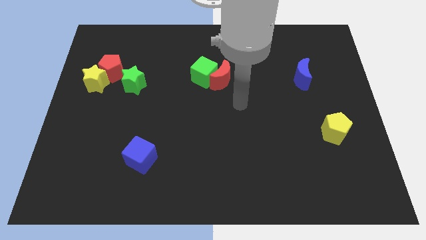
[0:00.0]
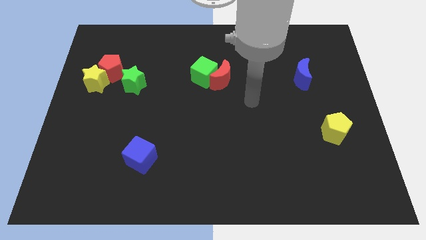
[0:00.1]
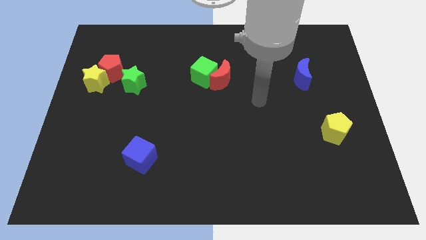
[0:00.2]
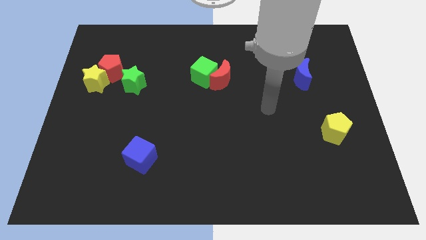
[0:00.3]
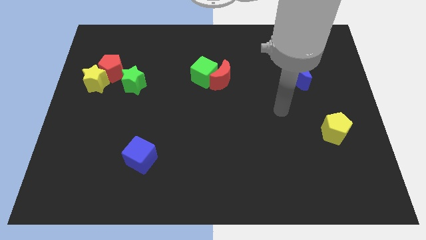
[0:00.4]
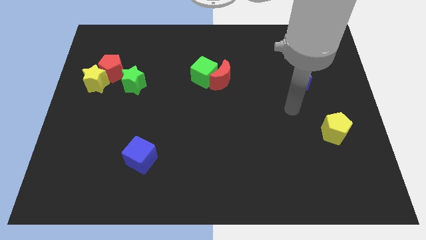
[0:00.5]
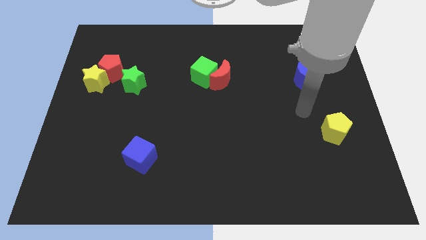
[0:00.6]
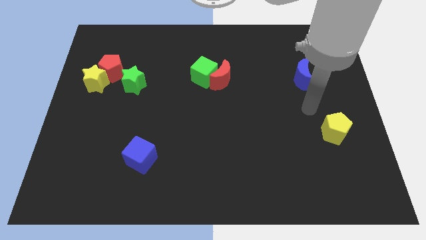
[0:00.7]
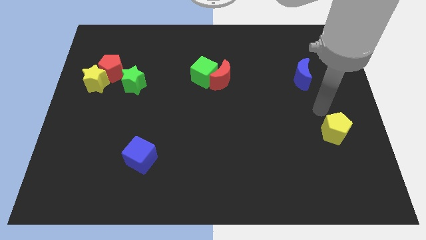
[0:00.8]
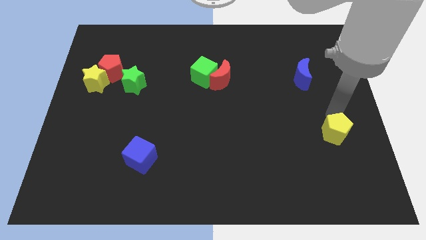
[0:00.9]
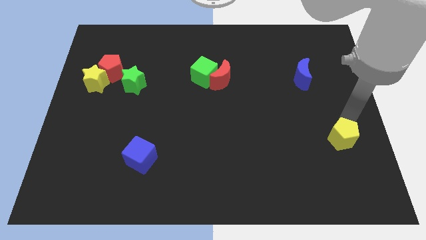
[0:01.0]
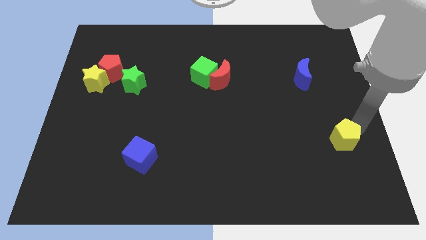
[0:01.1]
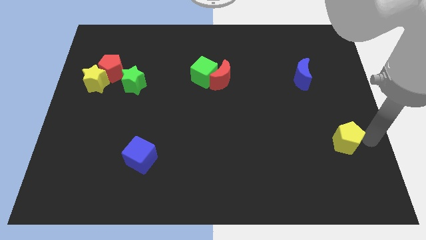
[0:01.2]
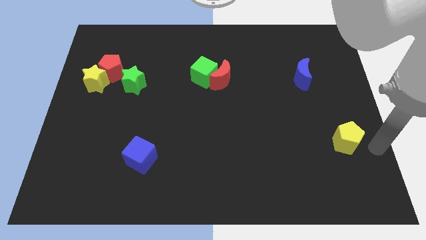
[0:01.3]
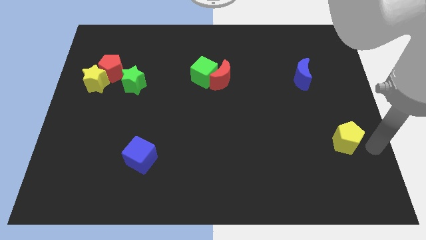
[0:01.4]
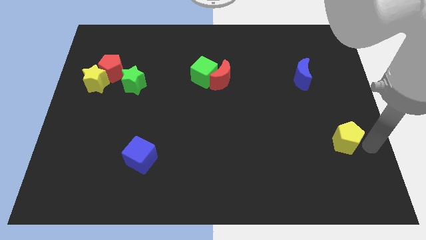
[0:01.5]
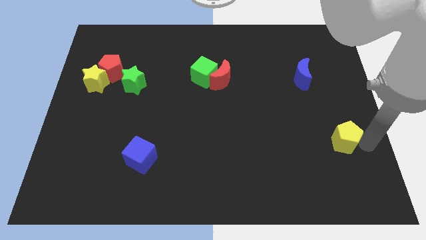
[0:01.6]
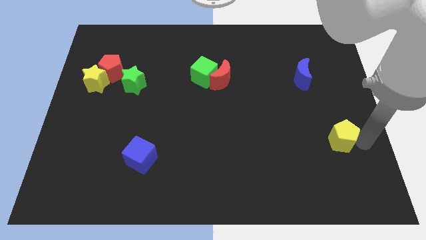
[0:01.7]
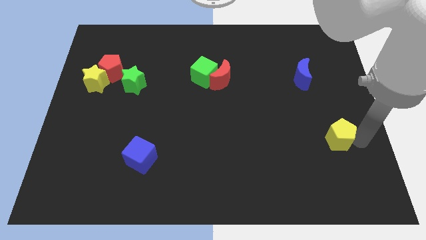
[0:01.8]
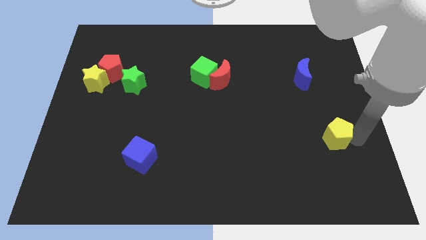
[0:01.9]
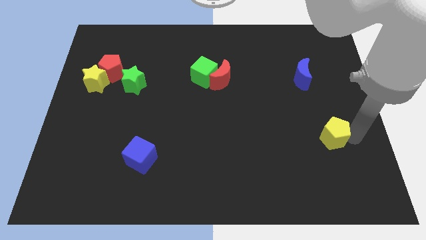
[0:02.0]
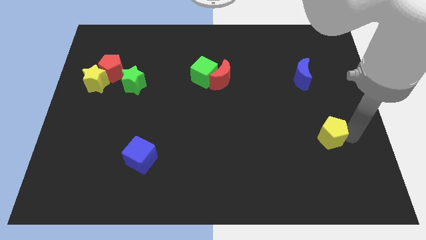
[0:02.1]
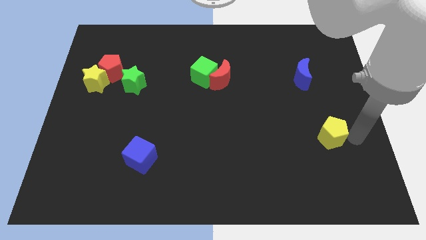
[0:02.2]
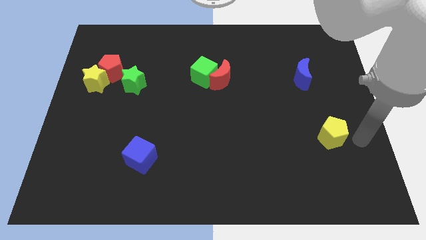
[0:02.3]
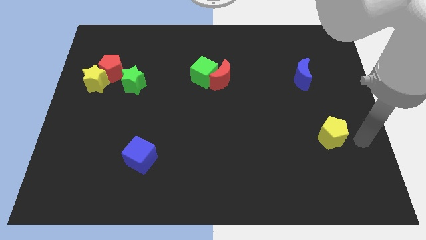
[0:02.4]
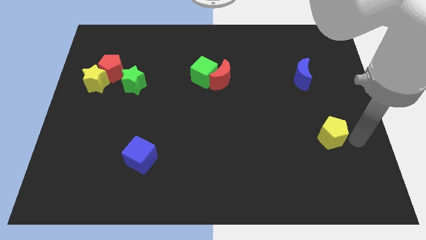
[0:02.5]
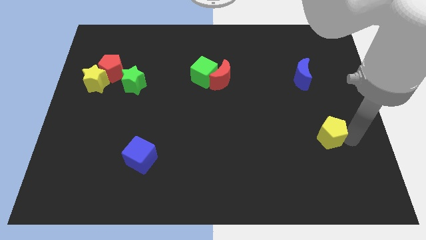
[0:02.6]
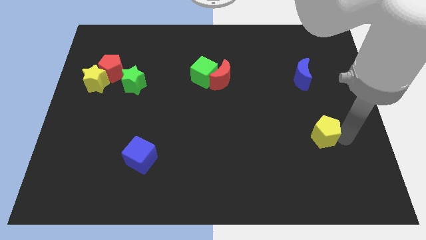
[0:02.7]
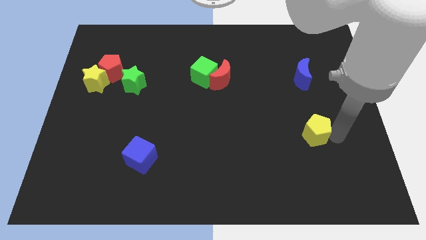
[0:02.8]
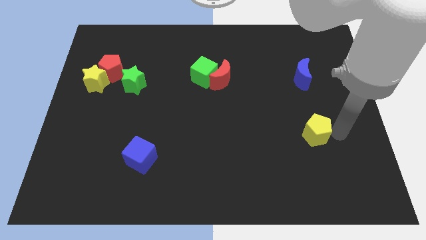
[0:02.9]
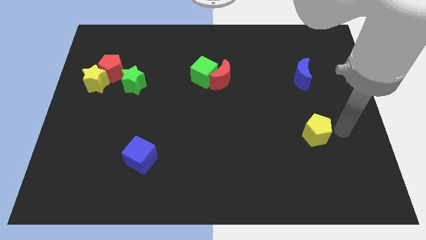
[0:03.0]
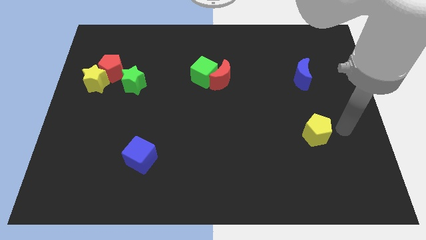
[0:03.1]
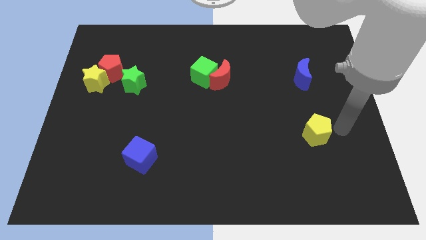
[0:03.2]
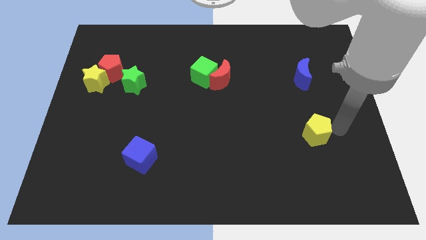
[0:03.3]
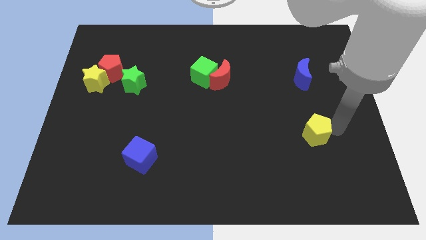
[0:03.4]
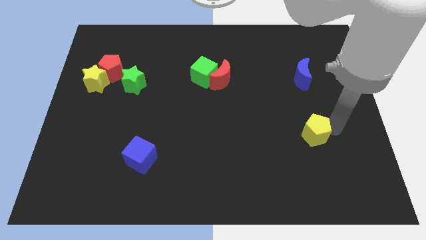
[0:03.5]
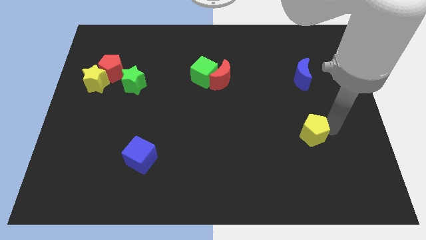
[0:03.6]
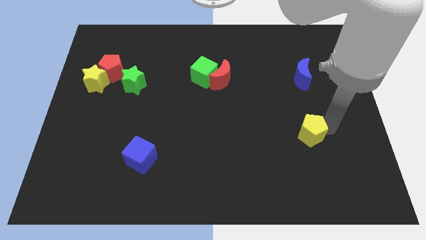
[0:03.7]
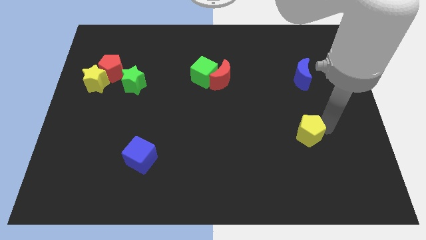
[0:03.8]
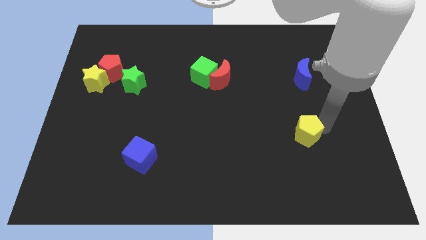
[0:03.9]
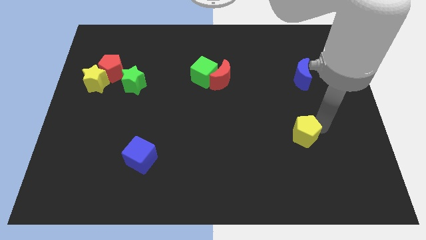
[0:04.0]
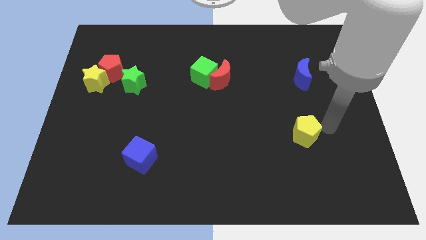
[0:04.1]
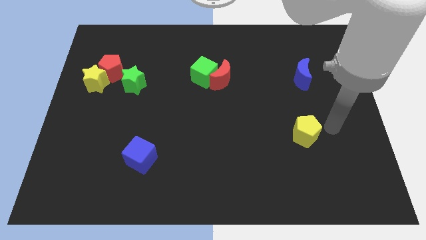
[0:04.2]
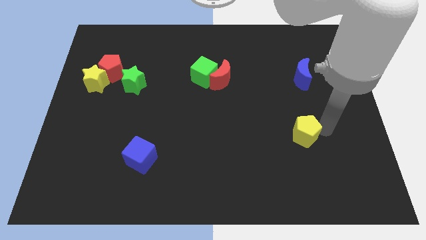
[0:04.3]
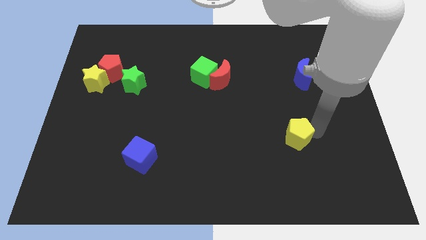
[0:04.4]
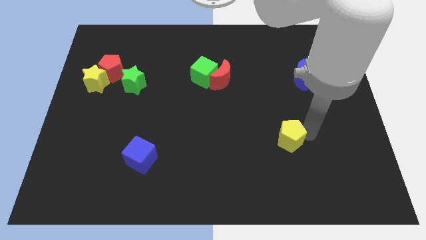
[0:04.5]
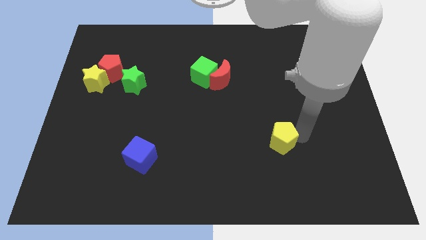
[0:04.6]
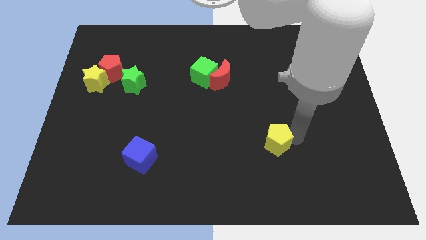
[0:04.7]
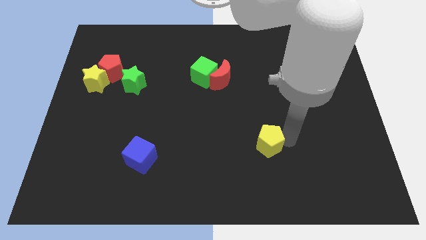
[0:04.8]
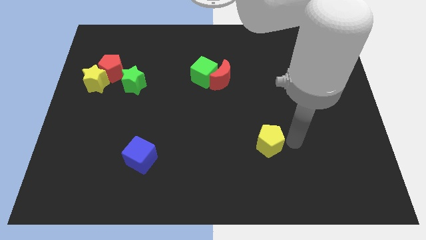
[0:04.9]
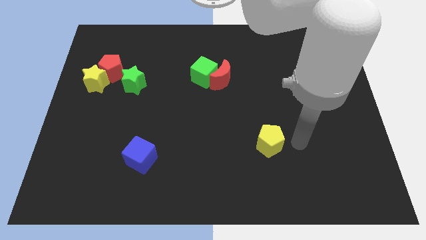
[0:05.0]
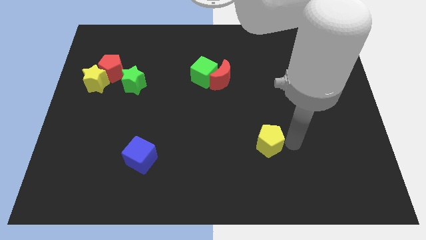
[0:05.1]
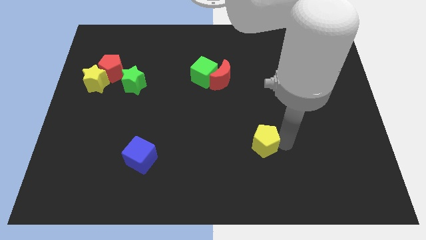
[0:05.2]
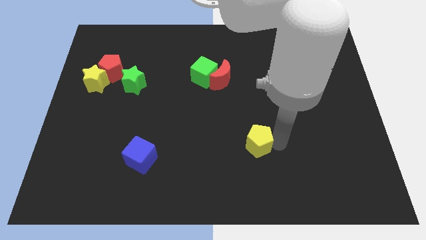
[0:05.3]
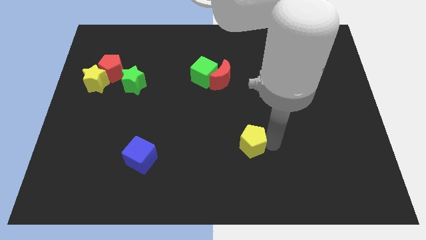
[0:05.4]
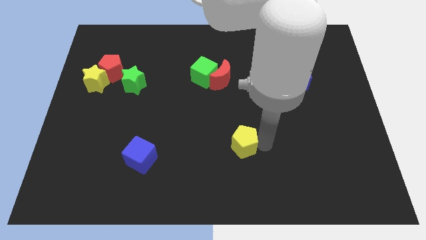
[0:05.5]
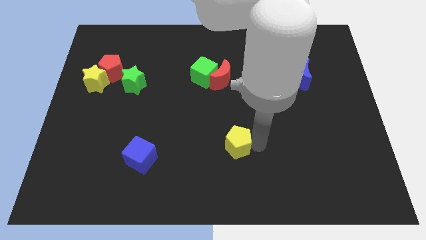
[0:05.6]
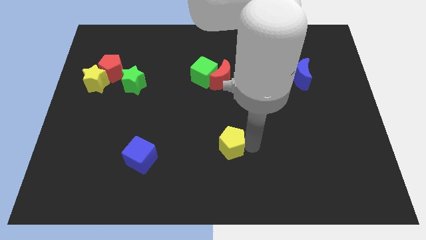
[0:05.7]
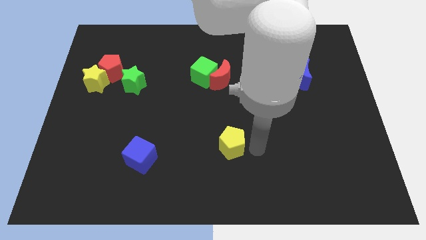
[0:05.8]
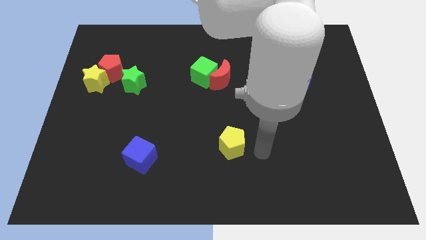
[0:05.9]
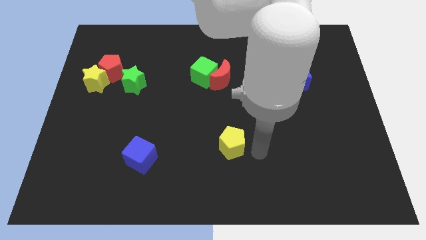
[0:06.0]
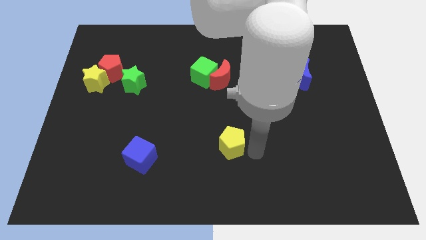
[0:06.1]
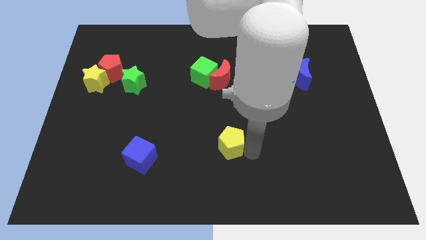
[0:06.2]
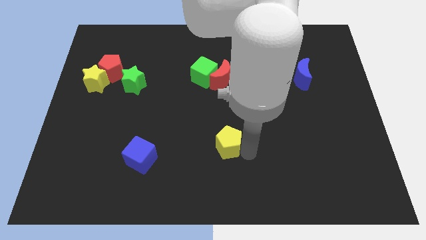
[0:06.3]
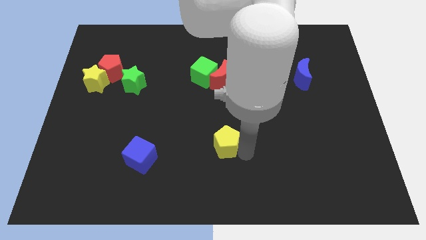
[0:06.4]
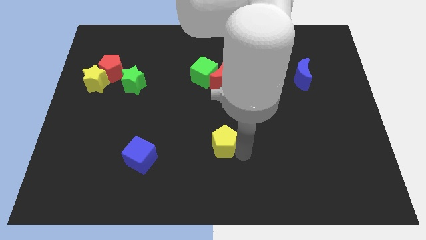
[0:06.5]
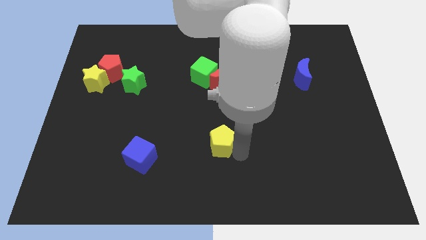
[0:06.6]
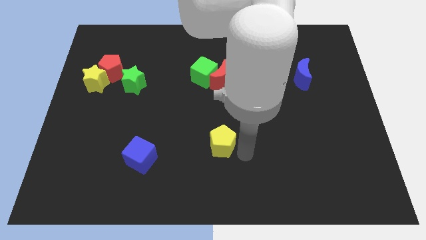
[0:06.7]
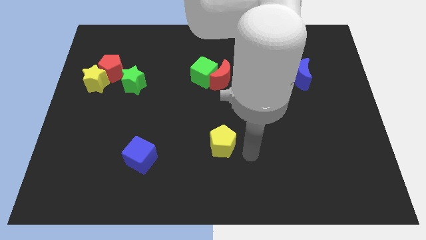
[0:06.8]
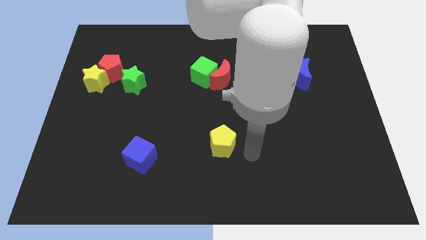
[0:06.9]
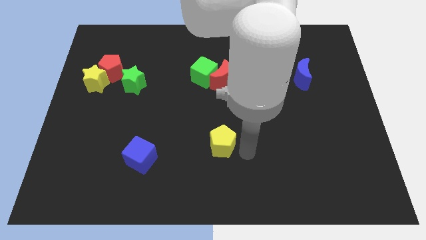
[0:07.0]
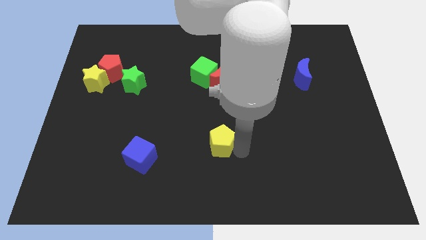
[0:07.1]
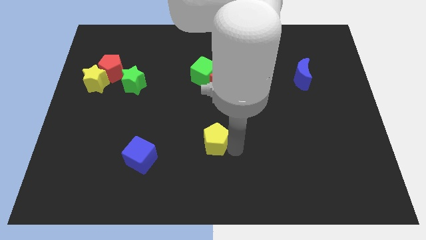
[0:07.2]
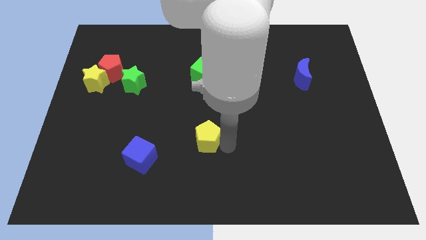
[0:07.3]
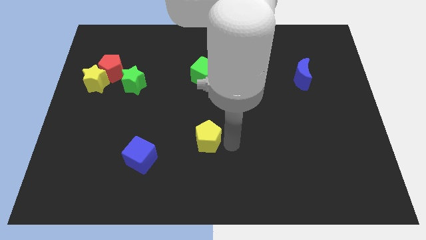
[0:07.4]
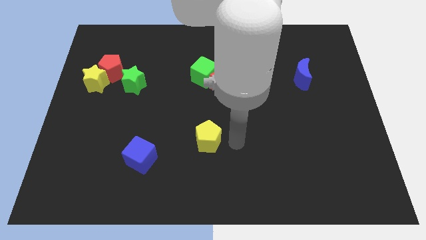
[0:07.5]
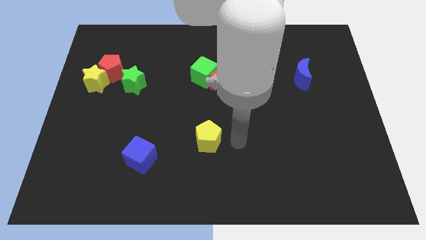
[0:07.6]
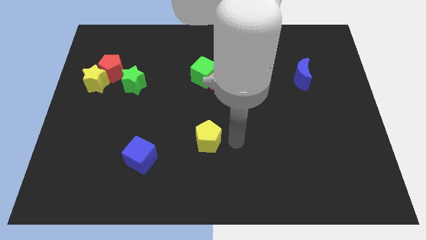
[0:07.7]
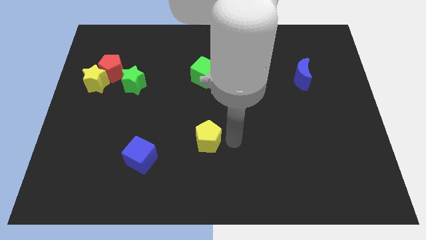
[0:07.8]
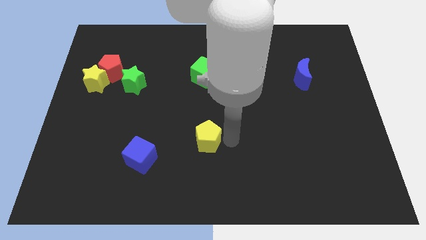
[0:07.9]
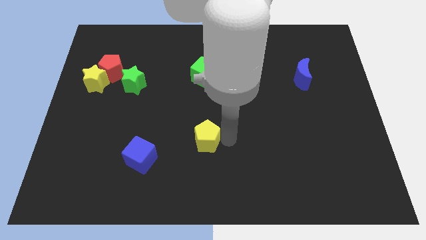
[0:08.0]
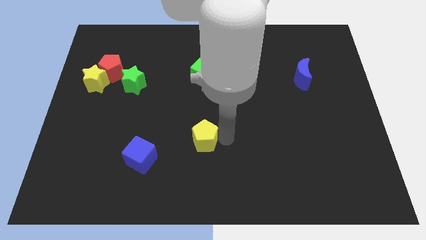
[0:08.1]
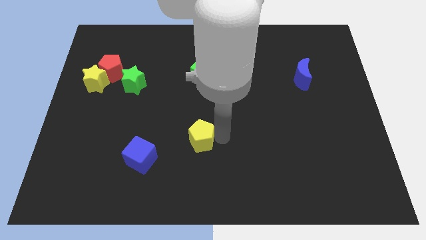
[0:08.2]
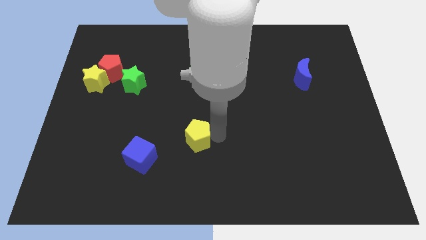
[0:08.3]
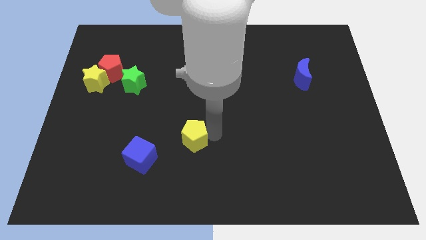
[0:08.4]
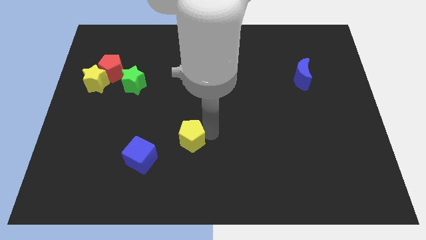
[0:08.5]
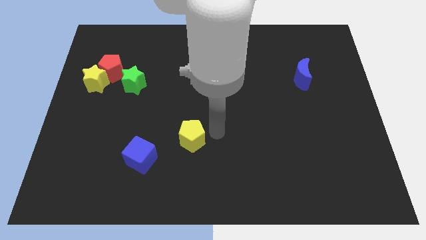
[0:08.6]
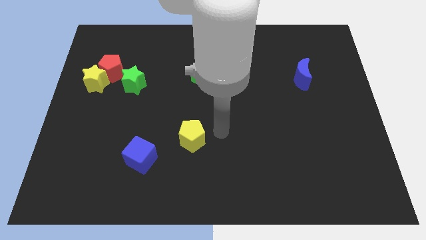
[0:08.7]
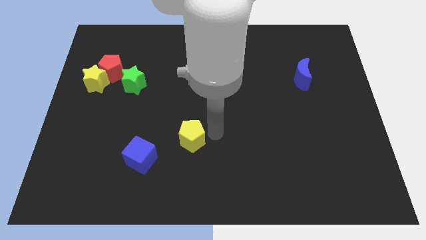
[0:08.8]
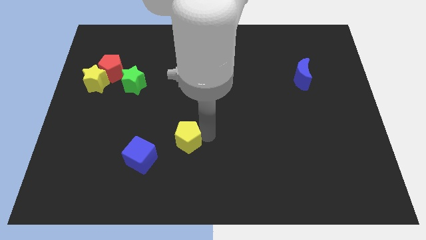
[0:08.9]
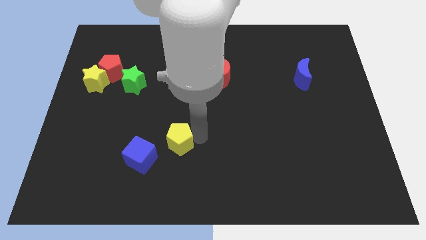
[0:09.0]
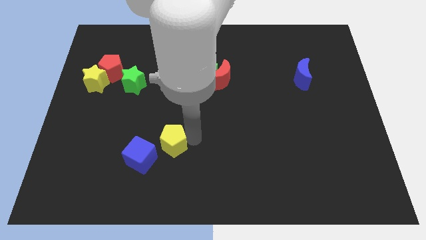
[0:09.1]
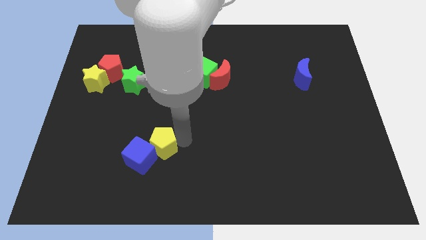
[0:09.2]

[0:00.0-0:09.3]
put the yellow pentagon to the blue cube
